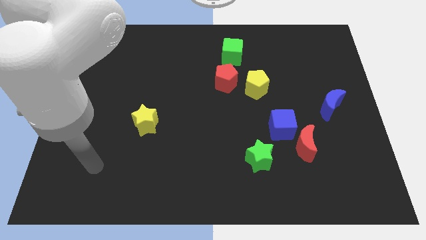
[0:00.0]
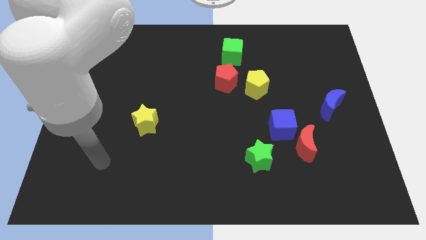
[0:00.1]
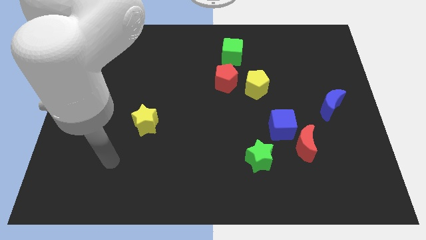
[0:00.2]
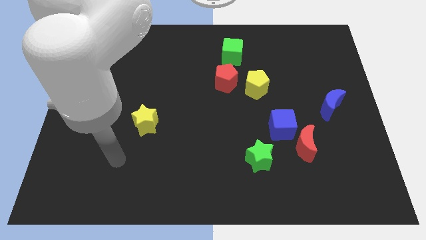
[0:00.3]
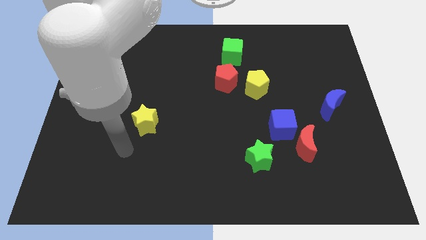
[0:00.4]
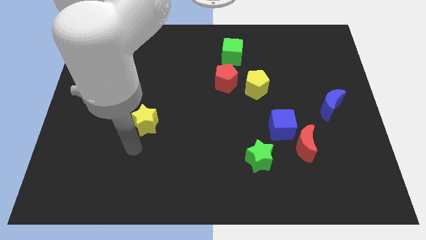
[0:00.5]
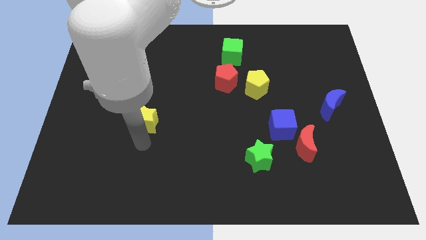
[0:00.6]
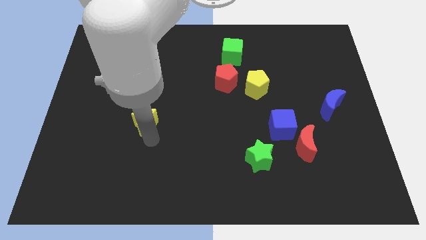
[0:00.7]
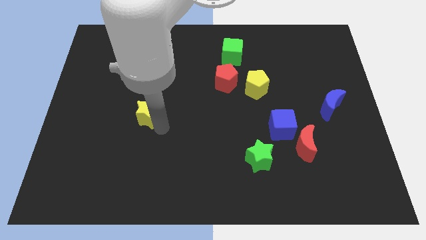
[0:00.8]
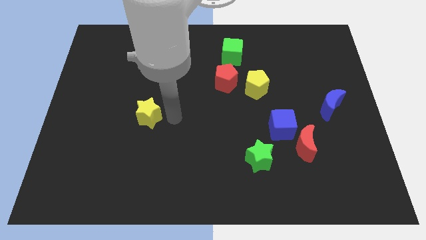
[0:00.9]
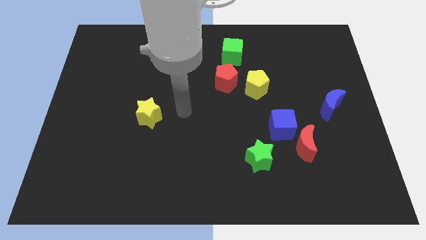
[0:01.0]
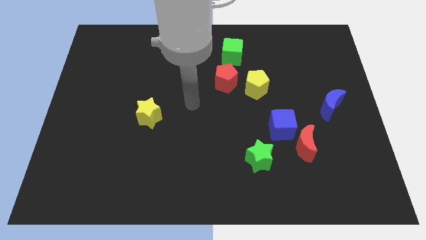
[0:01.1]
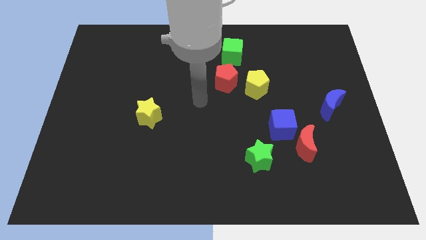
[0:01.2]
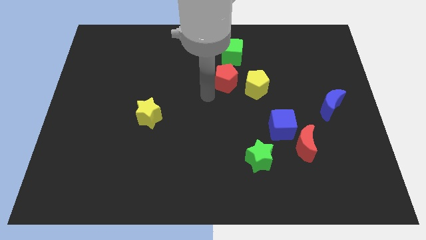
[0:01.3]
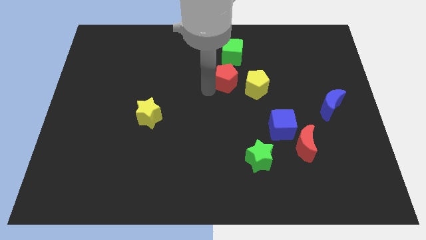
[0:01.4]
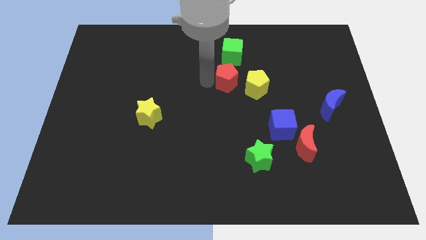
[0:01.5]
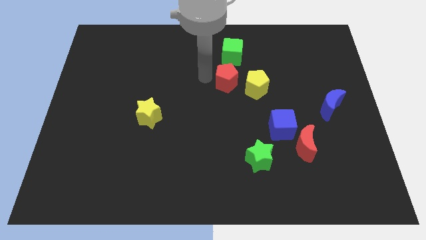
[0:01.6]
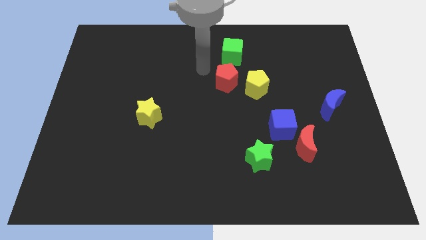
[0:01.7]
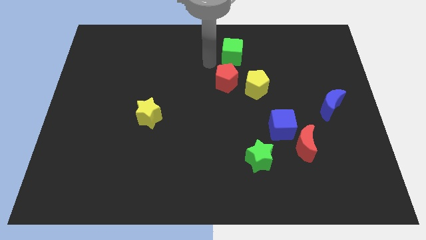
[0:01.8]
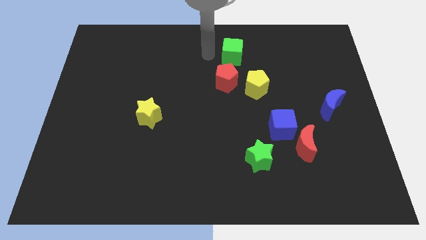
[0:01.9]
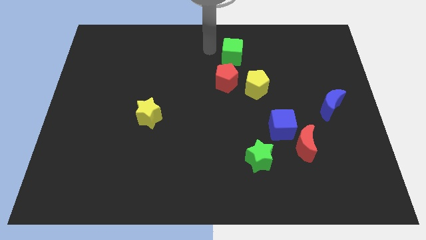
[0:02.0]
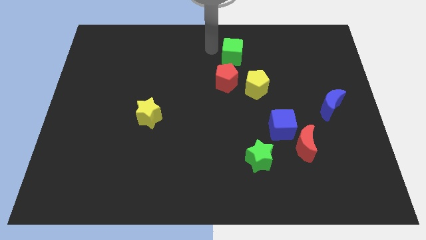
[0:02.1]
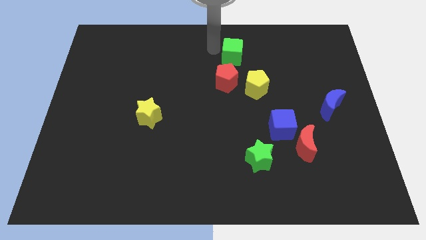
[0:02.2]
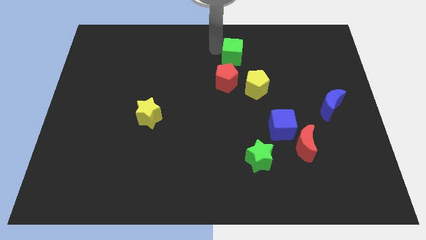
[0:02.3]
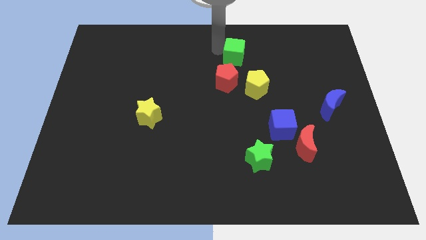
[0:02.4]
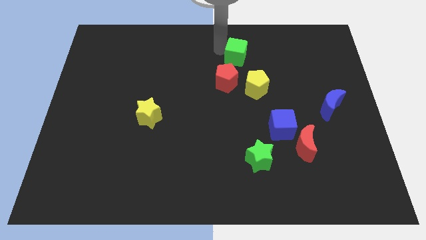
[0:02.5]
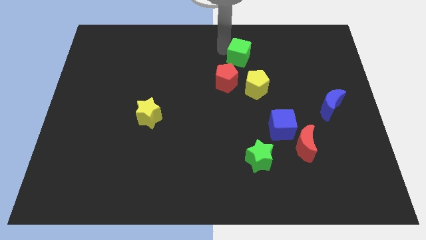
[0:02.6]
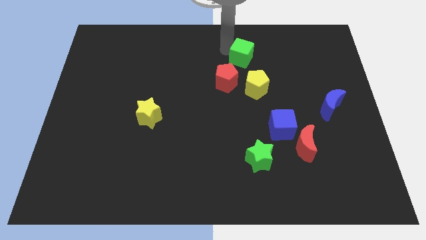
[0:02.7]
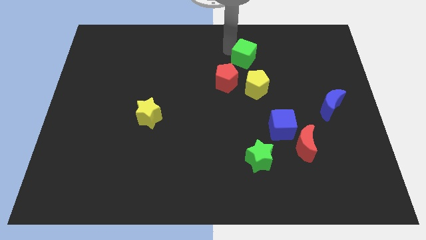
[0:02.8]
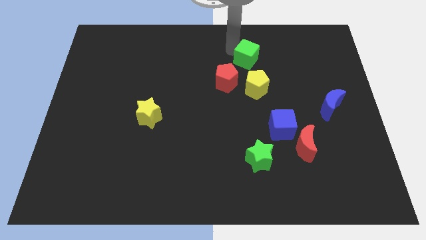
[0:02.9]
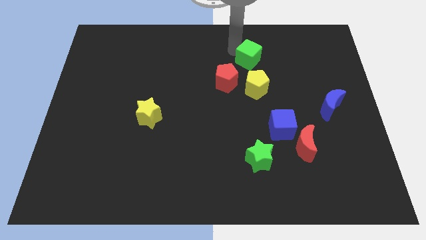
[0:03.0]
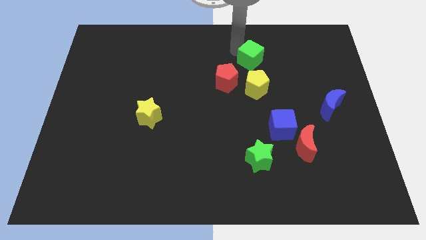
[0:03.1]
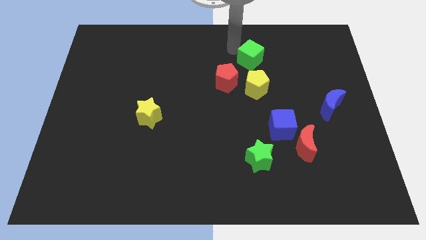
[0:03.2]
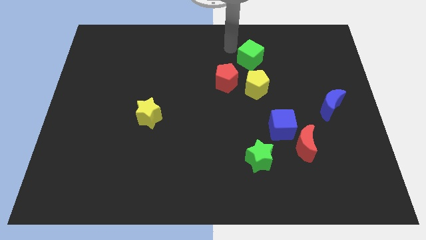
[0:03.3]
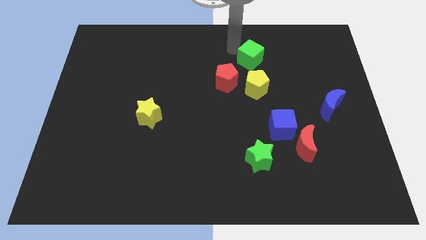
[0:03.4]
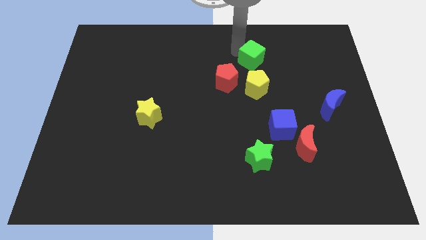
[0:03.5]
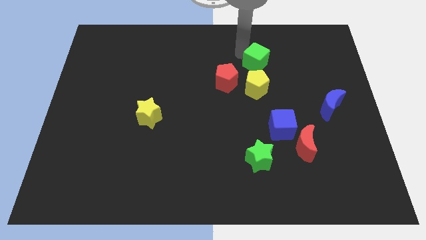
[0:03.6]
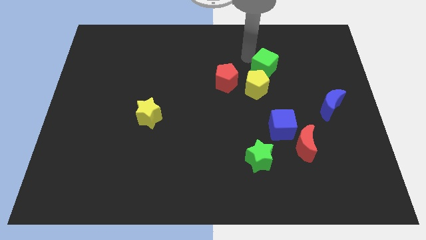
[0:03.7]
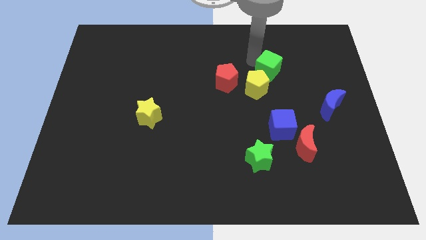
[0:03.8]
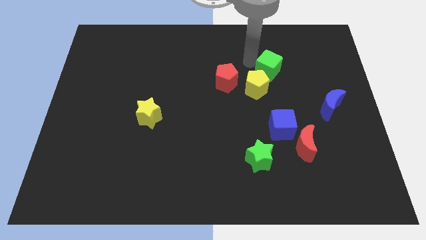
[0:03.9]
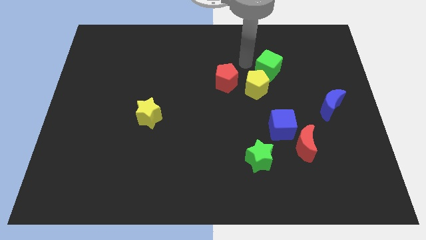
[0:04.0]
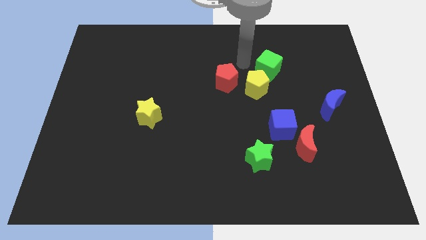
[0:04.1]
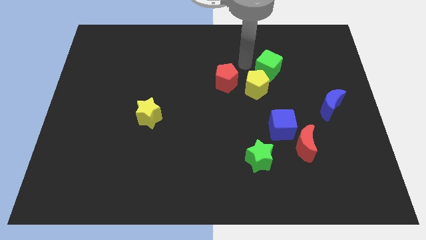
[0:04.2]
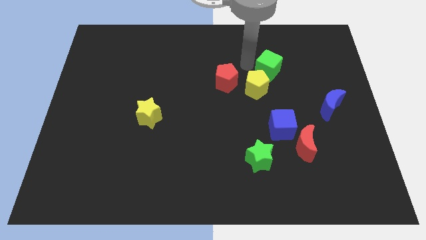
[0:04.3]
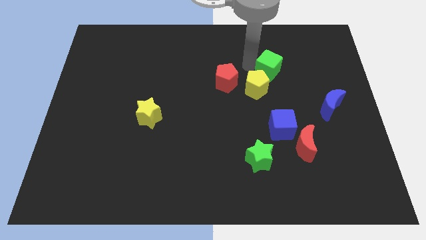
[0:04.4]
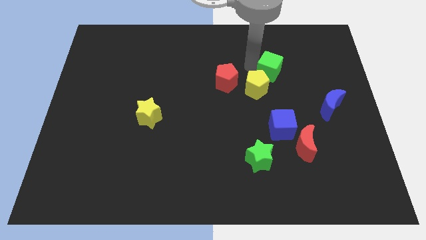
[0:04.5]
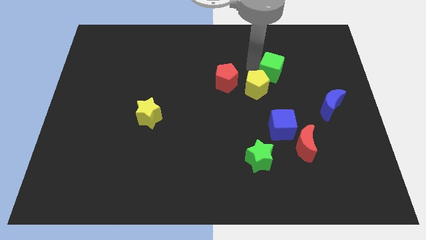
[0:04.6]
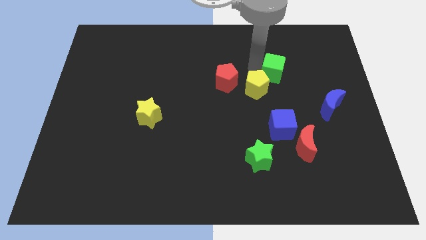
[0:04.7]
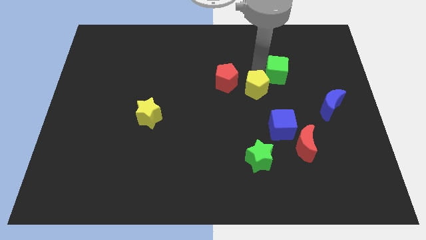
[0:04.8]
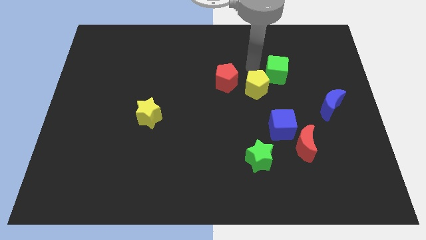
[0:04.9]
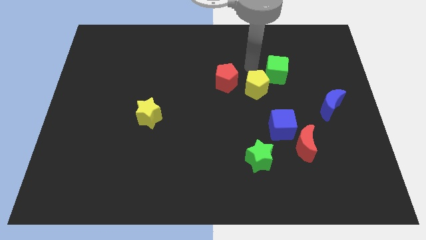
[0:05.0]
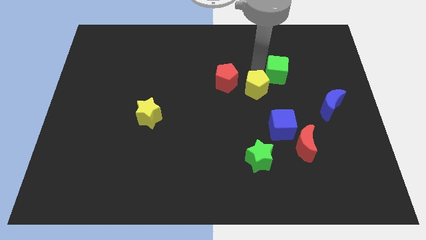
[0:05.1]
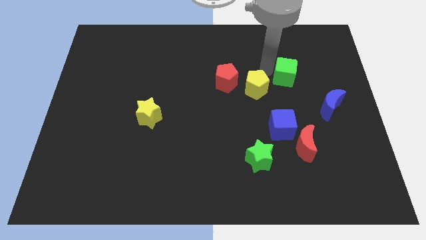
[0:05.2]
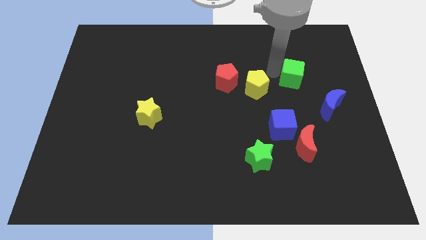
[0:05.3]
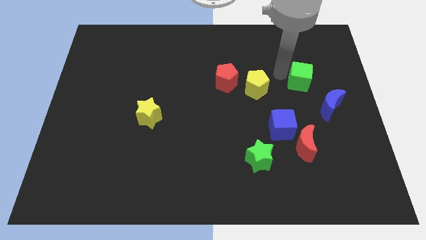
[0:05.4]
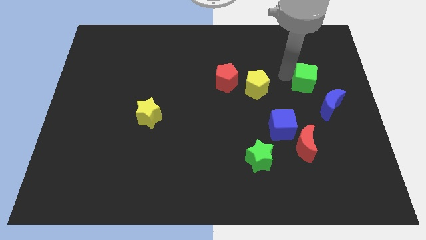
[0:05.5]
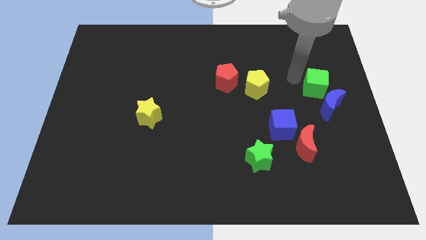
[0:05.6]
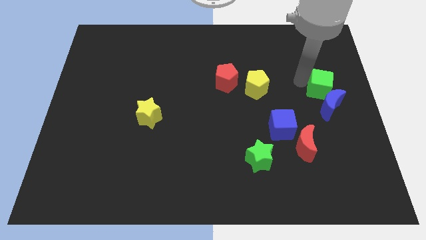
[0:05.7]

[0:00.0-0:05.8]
push the green cube to the right side of the board
